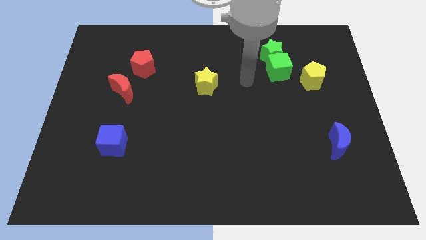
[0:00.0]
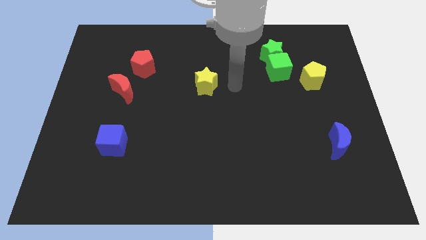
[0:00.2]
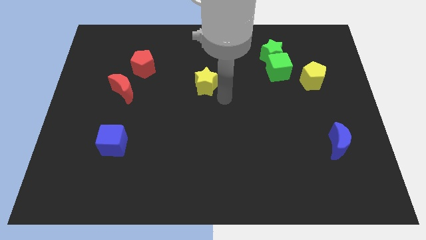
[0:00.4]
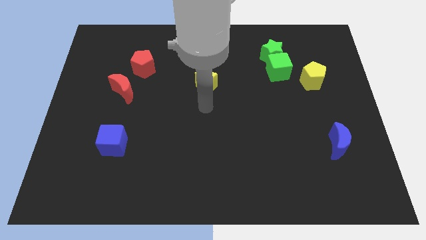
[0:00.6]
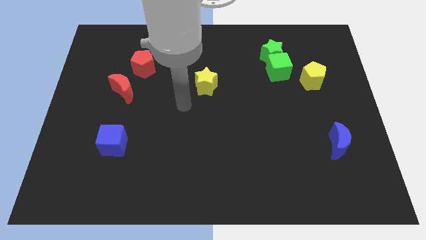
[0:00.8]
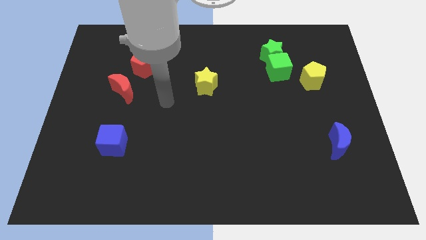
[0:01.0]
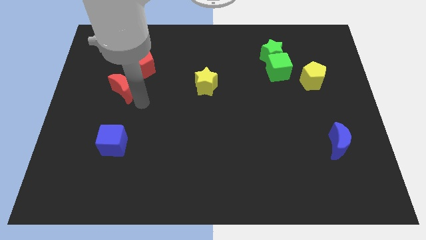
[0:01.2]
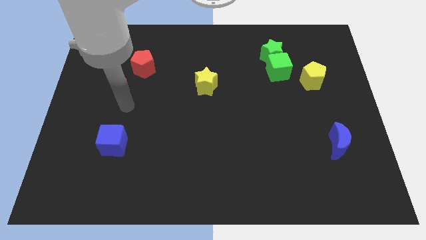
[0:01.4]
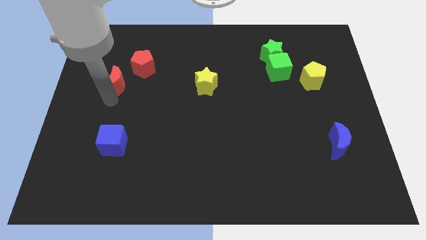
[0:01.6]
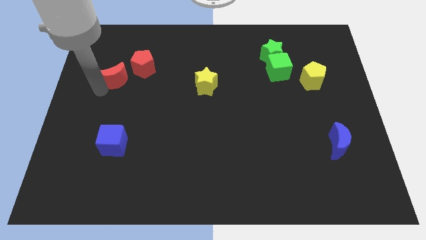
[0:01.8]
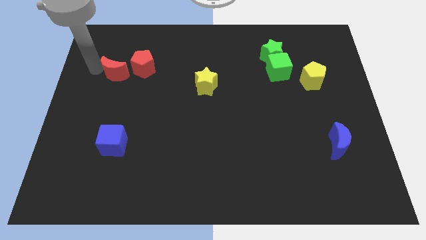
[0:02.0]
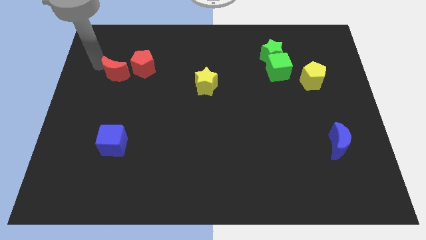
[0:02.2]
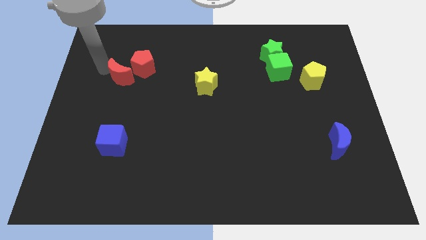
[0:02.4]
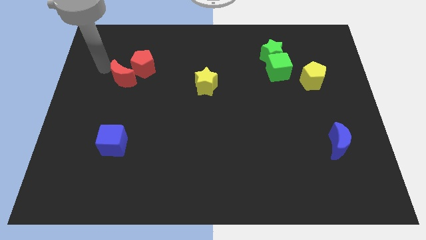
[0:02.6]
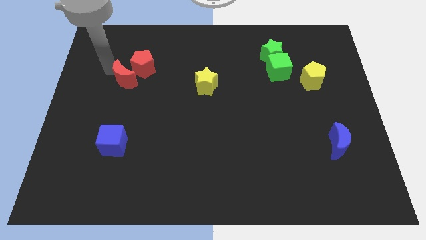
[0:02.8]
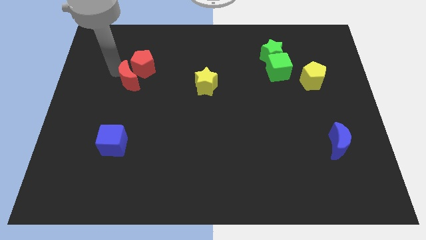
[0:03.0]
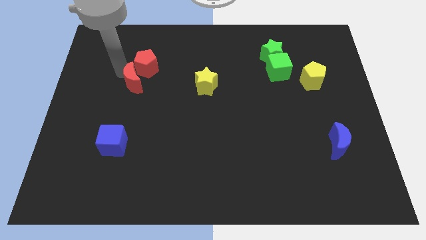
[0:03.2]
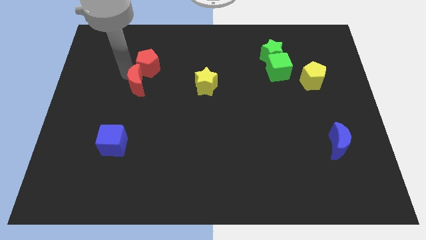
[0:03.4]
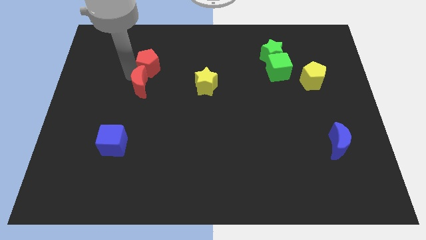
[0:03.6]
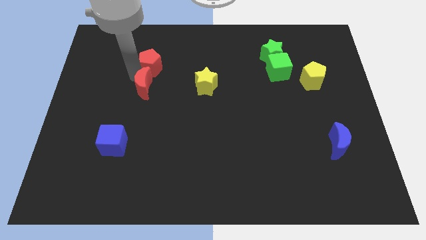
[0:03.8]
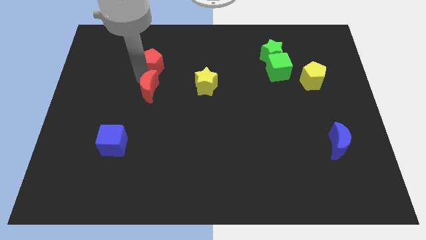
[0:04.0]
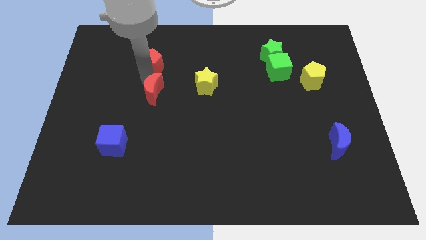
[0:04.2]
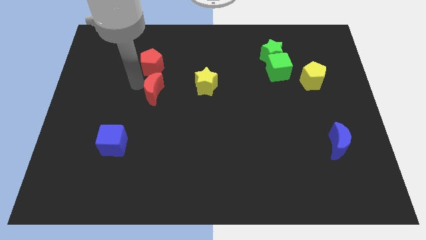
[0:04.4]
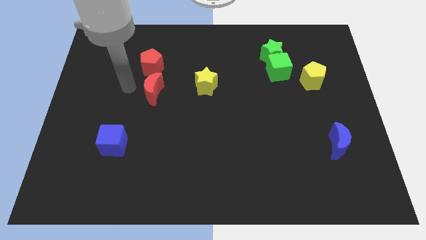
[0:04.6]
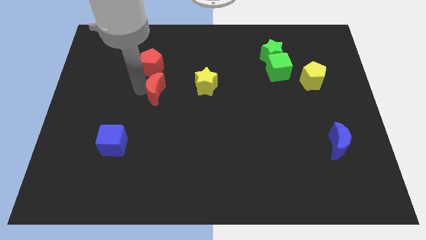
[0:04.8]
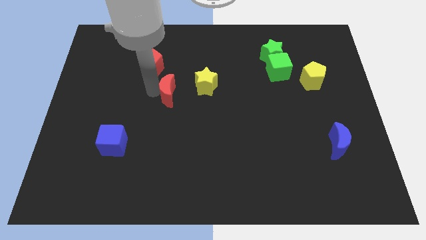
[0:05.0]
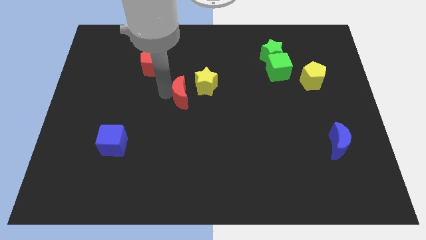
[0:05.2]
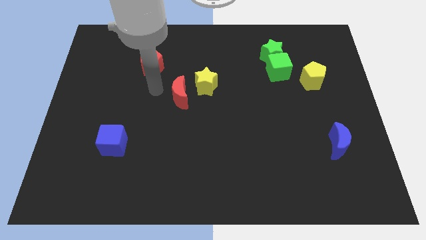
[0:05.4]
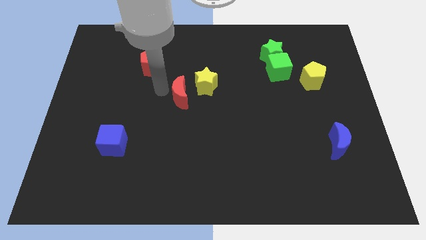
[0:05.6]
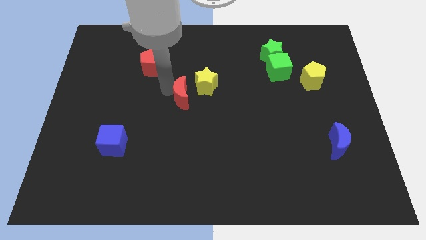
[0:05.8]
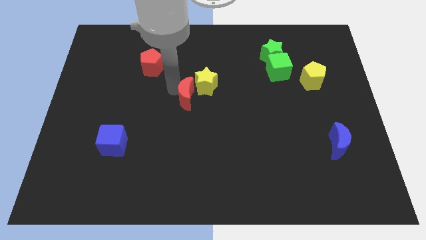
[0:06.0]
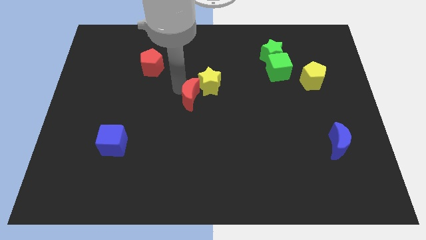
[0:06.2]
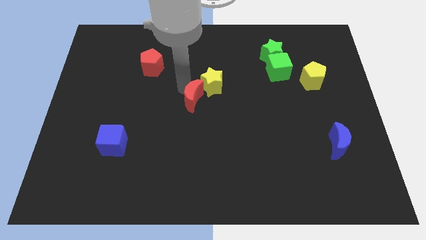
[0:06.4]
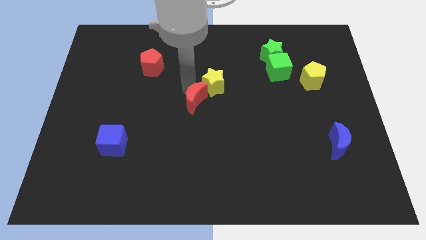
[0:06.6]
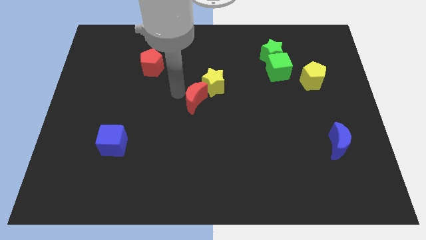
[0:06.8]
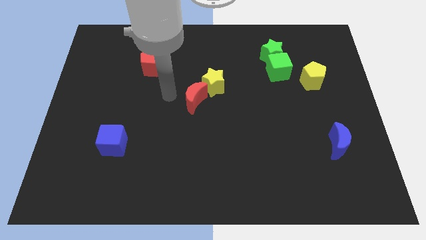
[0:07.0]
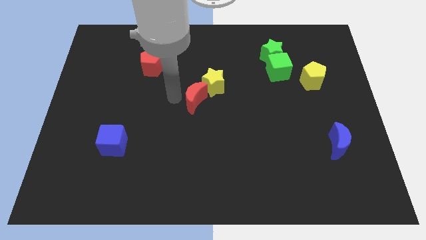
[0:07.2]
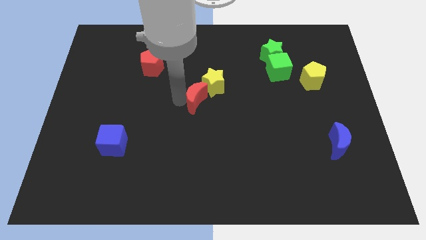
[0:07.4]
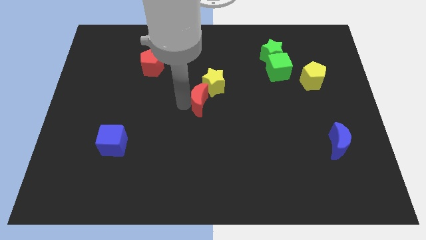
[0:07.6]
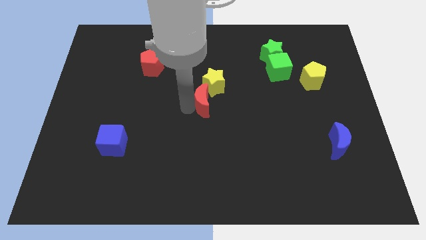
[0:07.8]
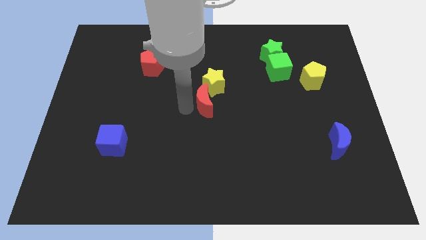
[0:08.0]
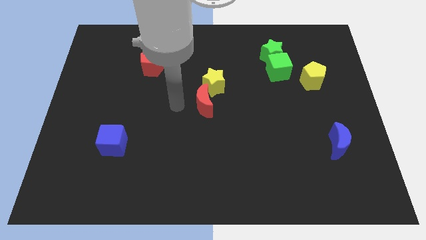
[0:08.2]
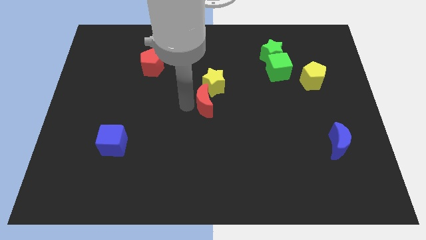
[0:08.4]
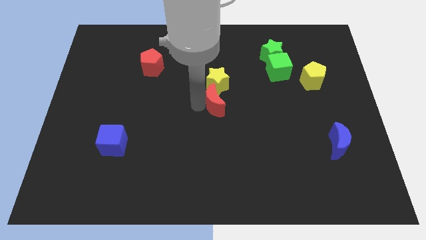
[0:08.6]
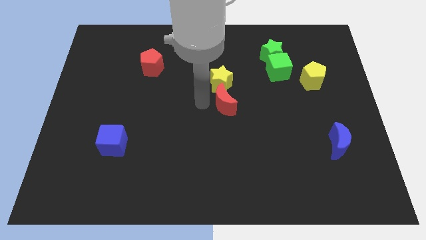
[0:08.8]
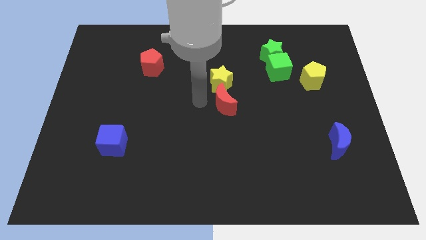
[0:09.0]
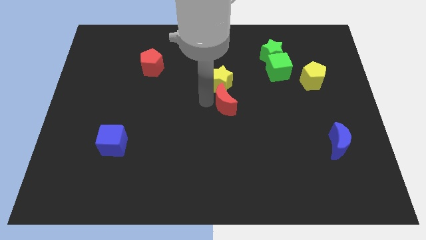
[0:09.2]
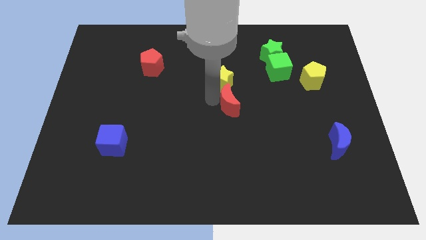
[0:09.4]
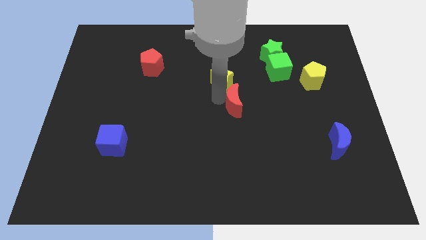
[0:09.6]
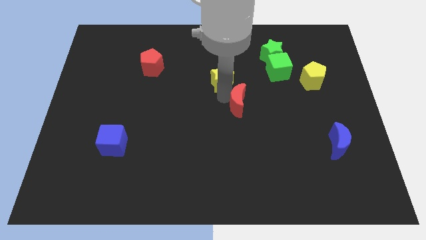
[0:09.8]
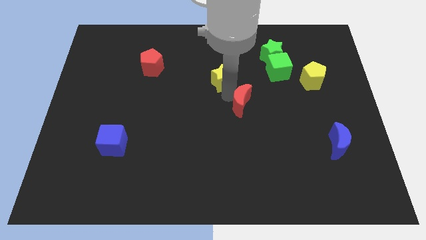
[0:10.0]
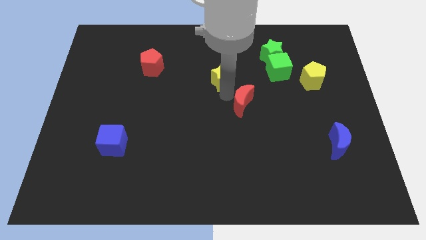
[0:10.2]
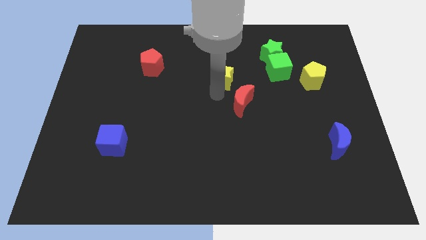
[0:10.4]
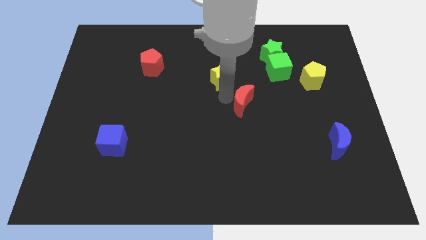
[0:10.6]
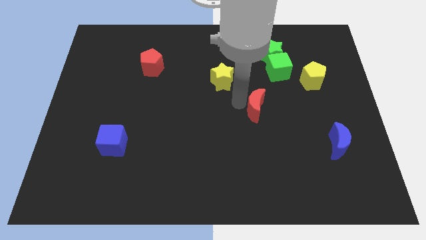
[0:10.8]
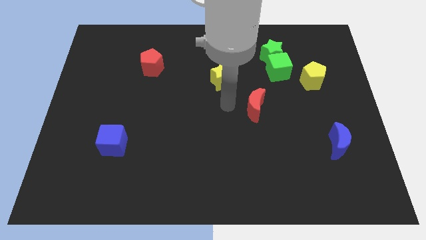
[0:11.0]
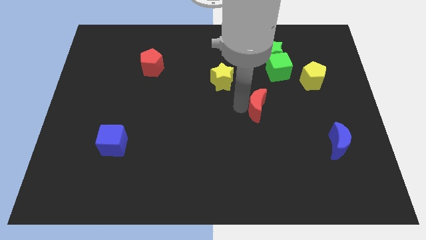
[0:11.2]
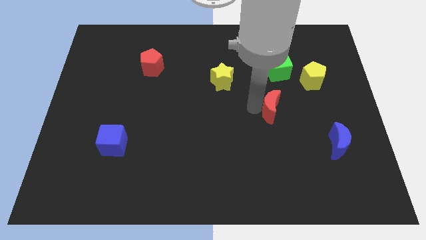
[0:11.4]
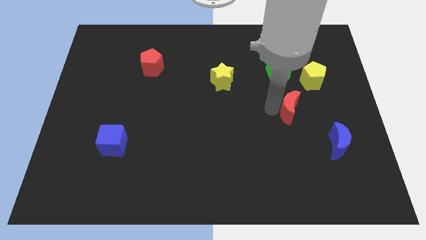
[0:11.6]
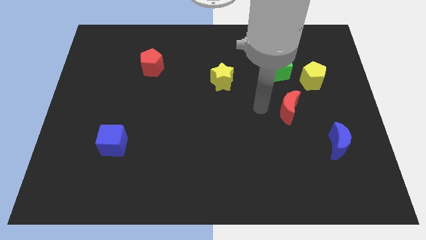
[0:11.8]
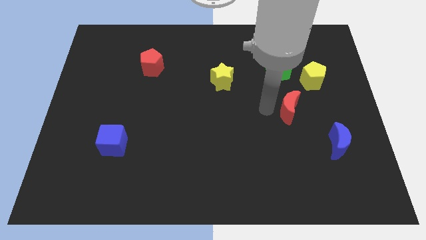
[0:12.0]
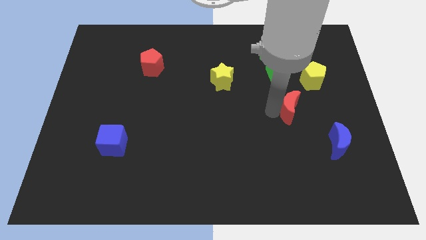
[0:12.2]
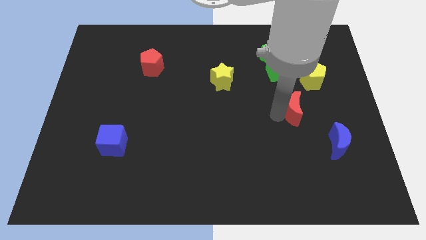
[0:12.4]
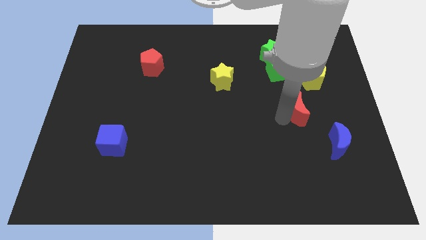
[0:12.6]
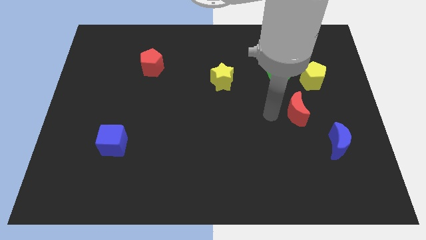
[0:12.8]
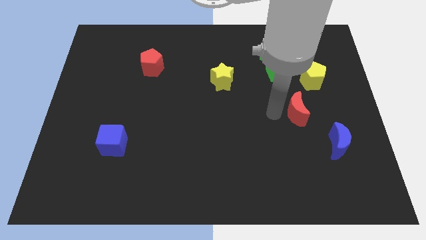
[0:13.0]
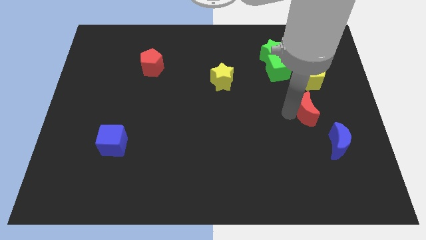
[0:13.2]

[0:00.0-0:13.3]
slide the red moon to the bottom side of the yellow pentagon

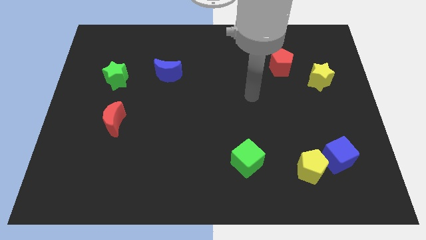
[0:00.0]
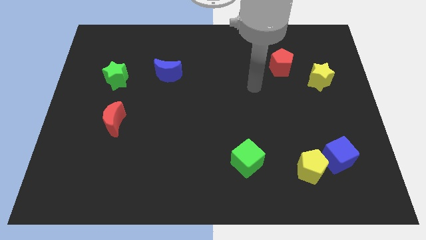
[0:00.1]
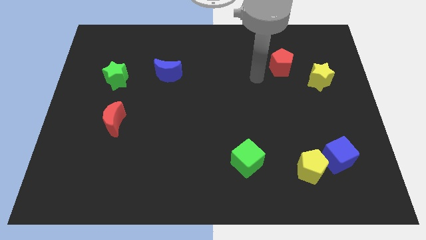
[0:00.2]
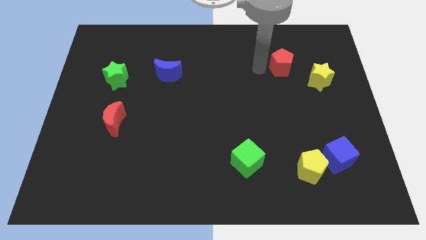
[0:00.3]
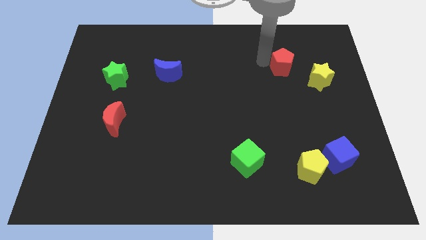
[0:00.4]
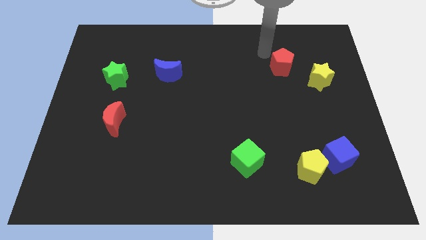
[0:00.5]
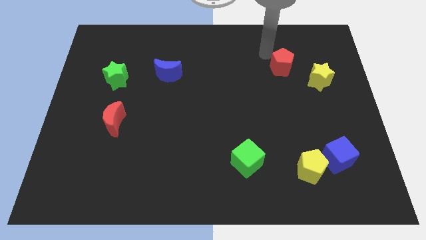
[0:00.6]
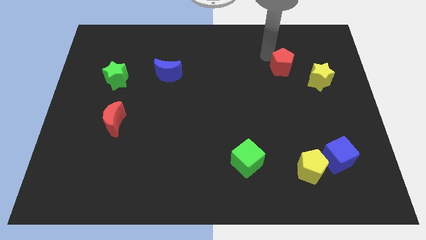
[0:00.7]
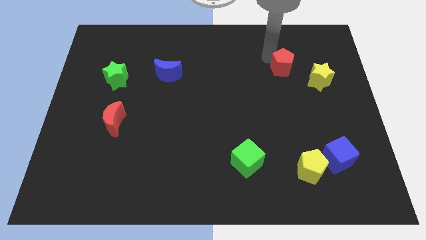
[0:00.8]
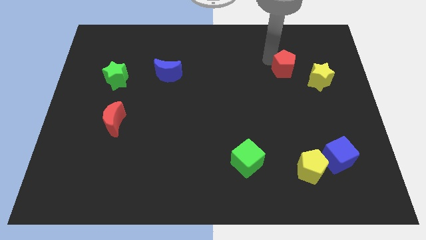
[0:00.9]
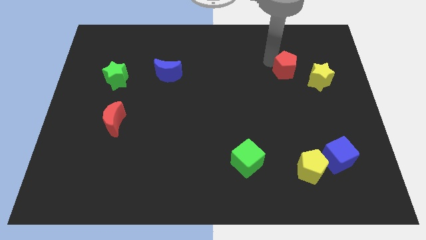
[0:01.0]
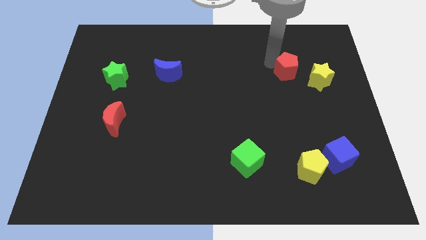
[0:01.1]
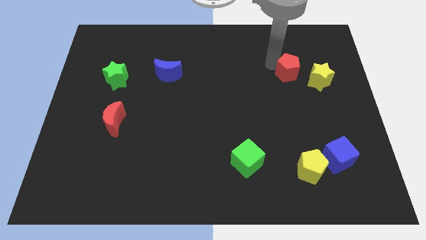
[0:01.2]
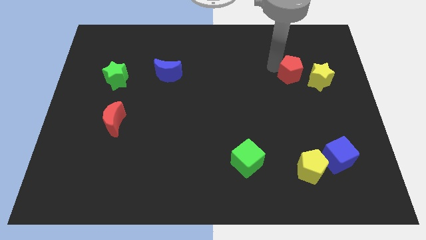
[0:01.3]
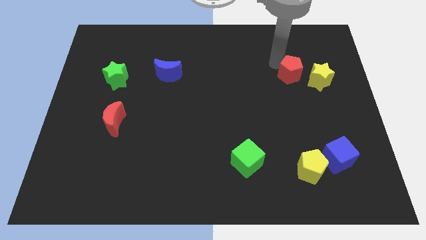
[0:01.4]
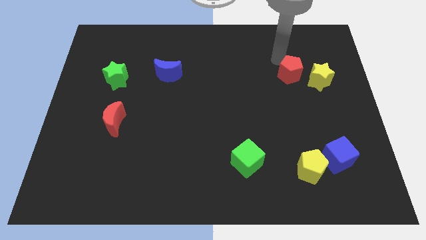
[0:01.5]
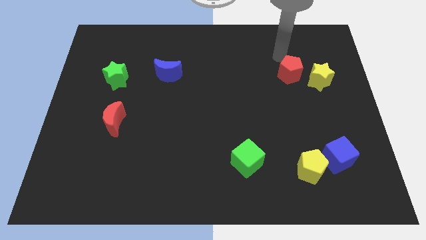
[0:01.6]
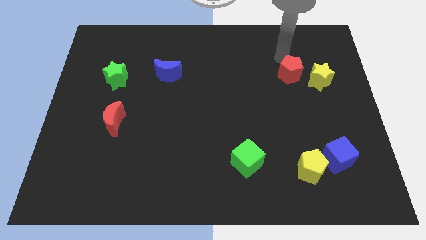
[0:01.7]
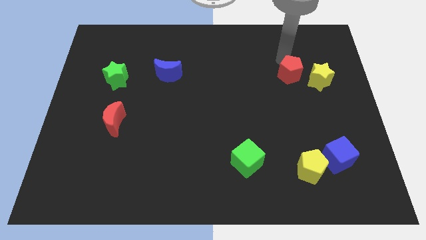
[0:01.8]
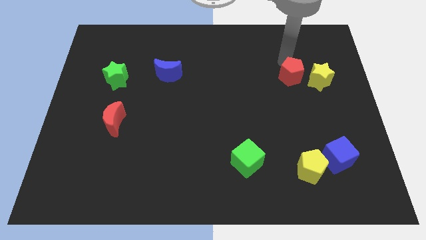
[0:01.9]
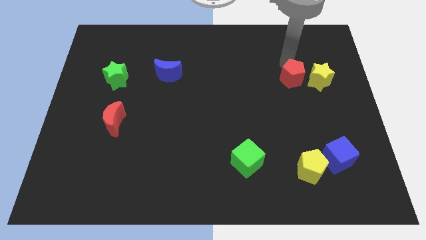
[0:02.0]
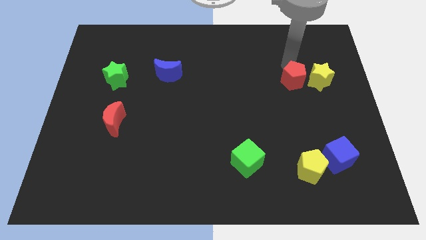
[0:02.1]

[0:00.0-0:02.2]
move the red pentagon to the bottom left of the yellow star
